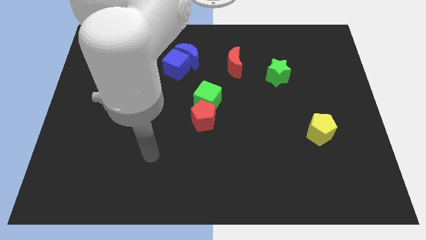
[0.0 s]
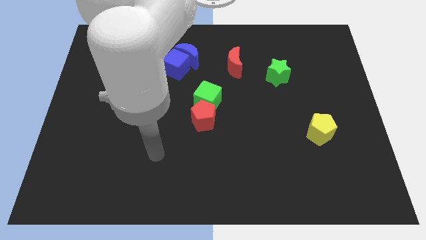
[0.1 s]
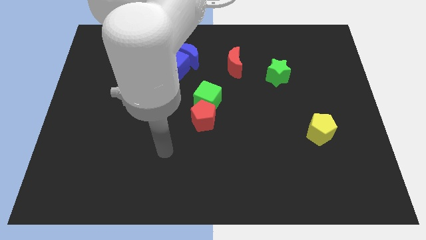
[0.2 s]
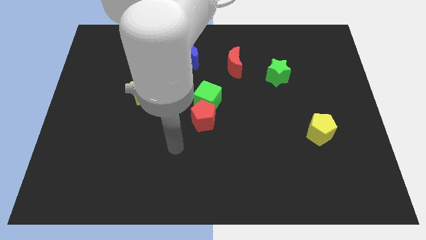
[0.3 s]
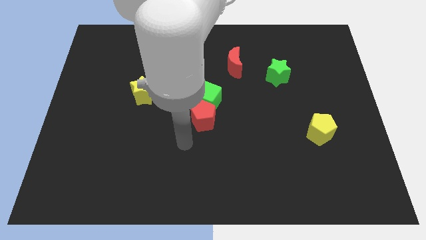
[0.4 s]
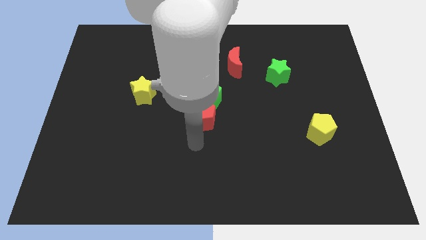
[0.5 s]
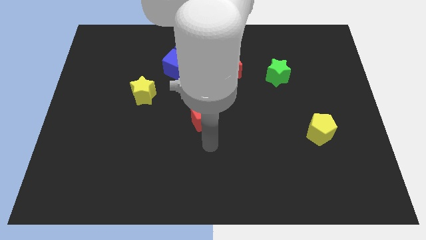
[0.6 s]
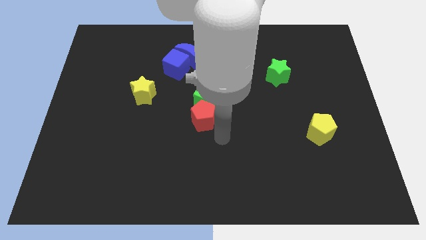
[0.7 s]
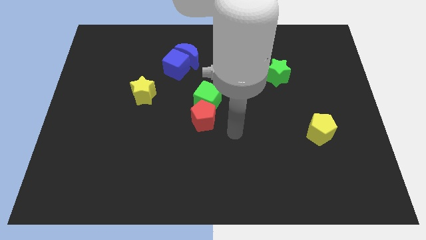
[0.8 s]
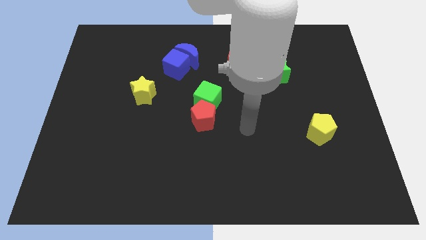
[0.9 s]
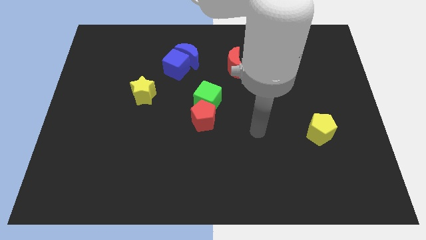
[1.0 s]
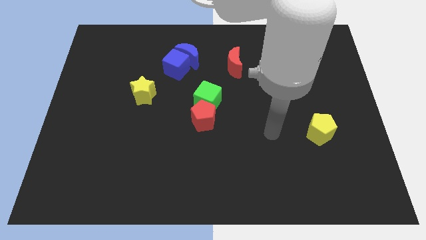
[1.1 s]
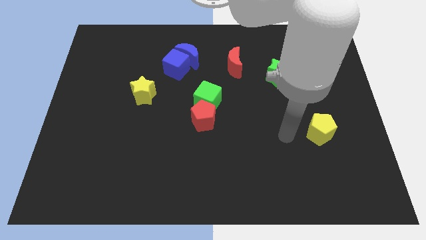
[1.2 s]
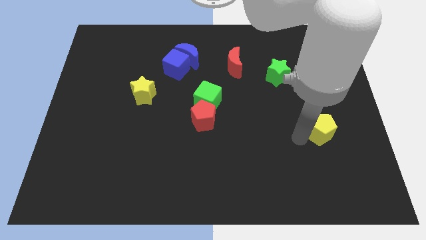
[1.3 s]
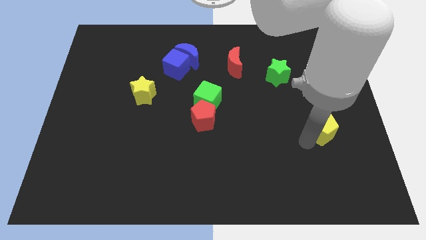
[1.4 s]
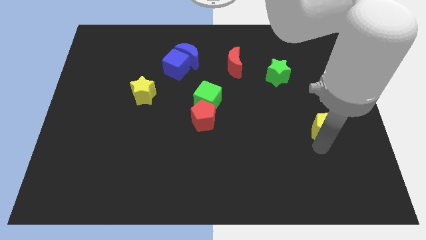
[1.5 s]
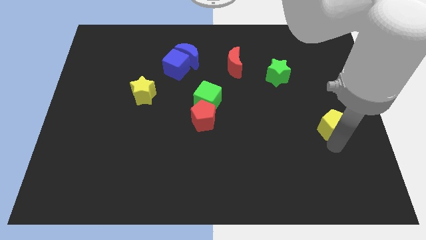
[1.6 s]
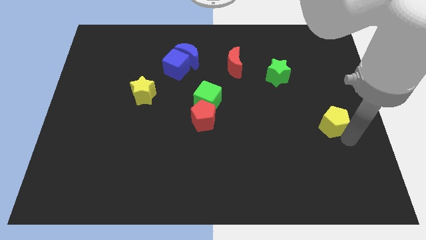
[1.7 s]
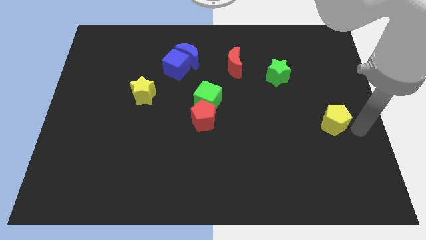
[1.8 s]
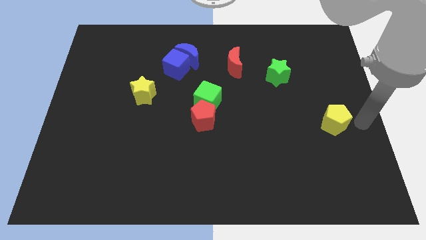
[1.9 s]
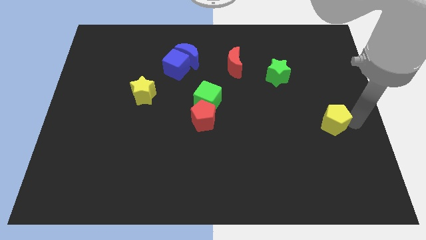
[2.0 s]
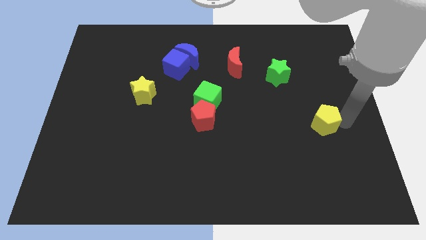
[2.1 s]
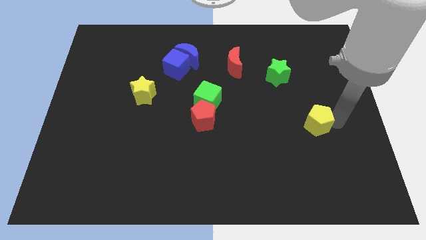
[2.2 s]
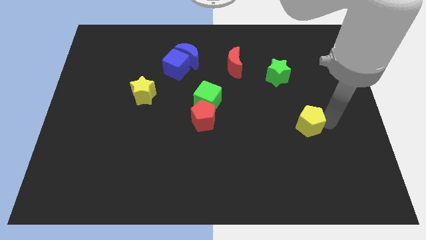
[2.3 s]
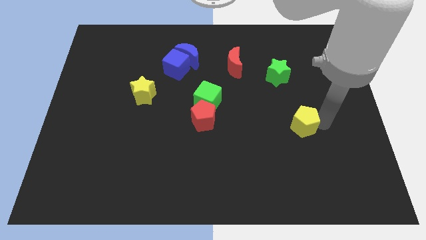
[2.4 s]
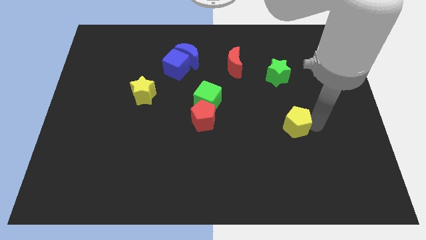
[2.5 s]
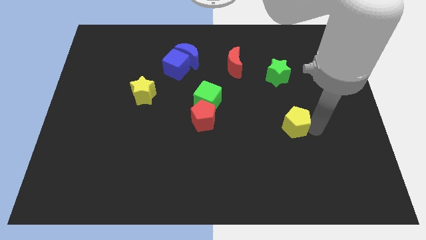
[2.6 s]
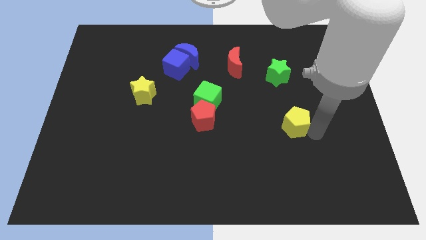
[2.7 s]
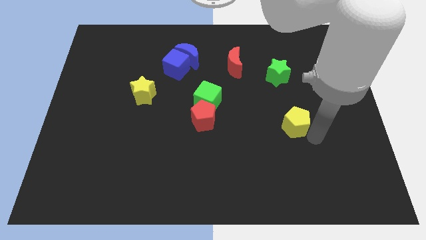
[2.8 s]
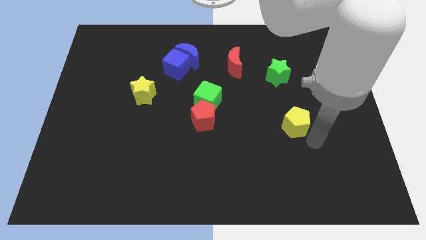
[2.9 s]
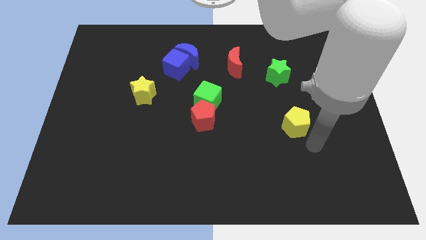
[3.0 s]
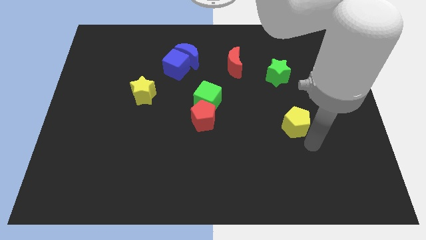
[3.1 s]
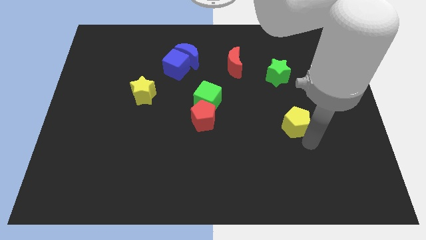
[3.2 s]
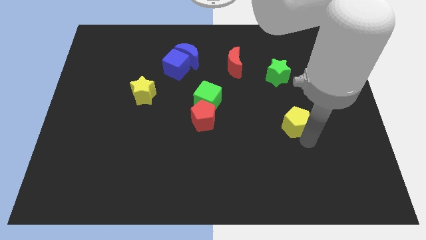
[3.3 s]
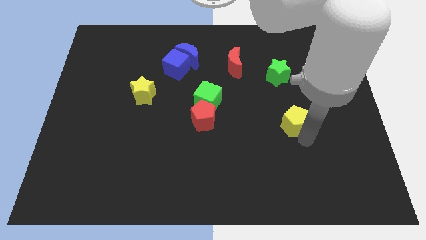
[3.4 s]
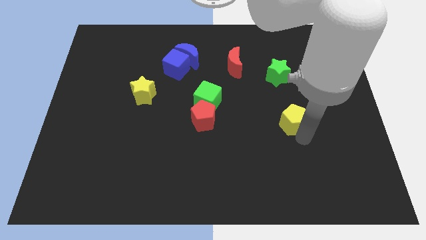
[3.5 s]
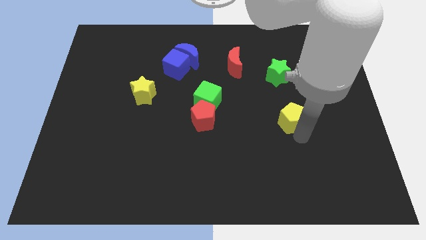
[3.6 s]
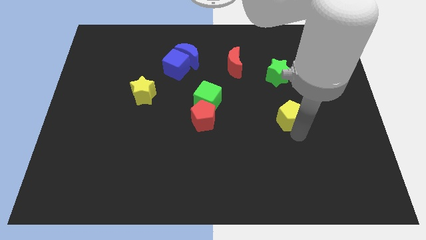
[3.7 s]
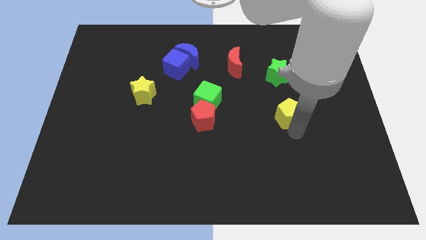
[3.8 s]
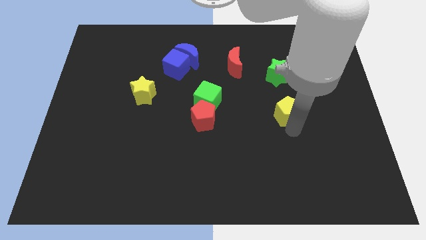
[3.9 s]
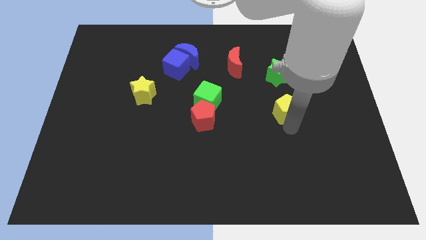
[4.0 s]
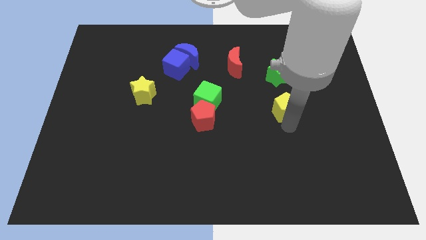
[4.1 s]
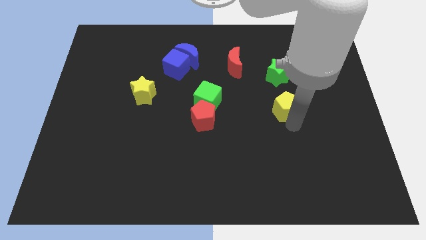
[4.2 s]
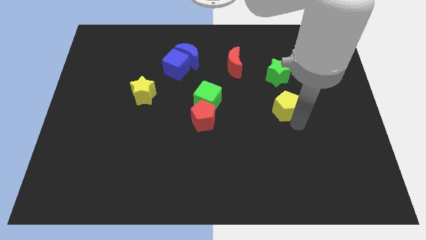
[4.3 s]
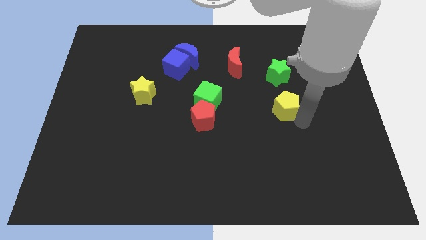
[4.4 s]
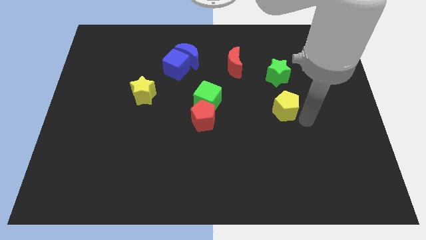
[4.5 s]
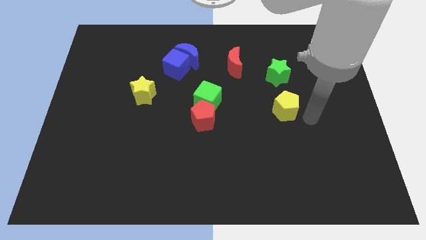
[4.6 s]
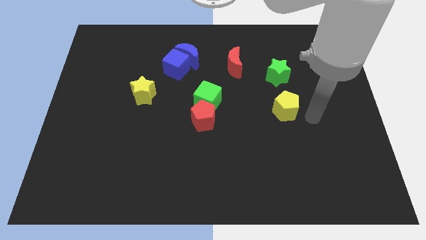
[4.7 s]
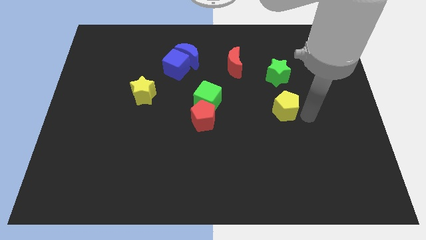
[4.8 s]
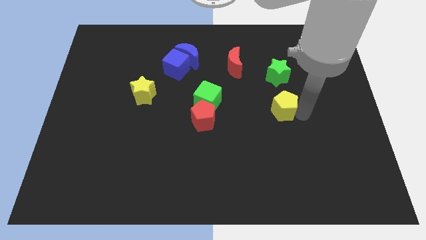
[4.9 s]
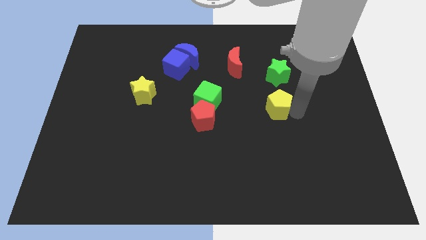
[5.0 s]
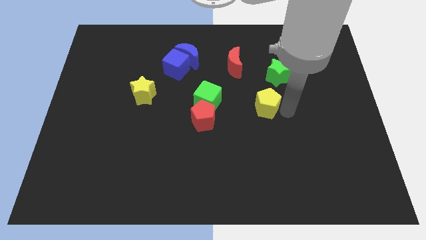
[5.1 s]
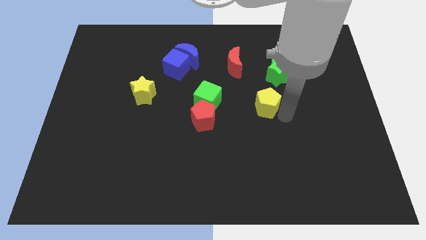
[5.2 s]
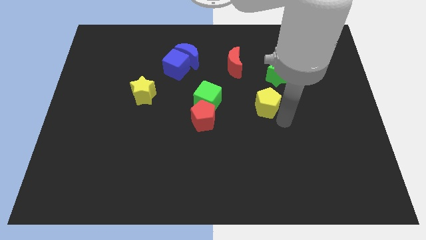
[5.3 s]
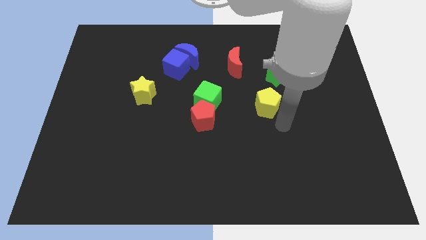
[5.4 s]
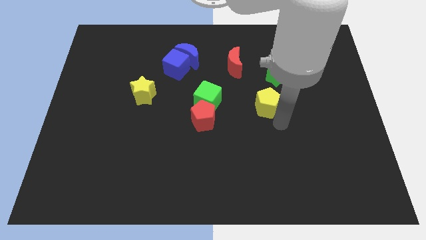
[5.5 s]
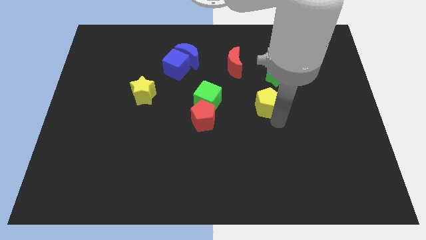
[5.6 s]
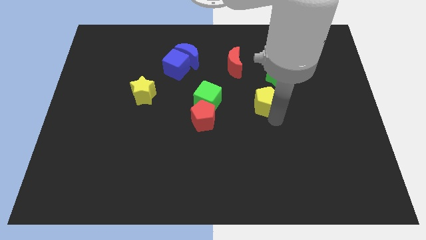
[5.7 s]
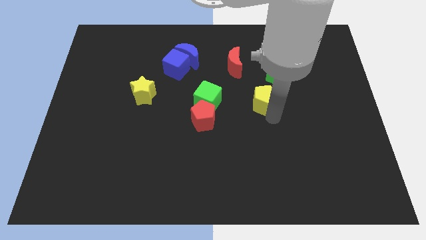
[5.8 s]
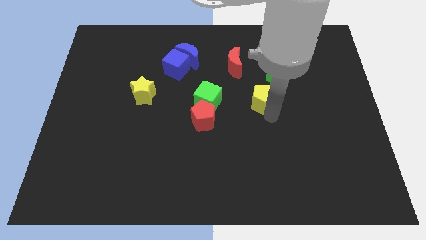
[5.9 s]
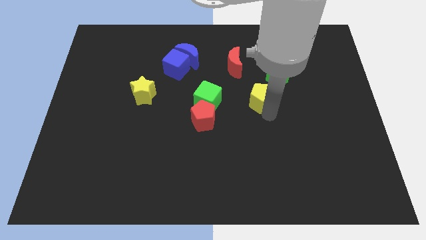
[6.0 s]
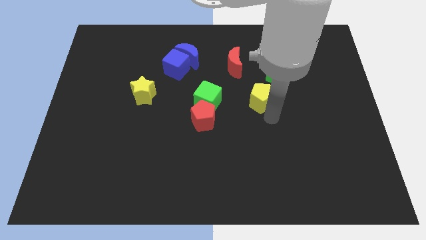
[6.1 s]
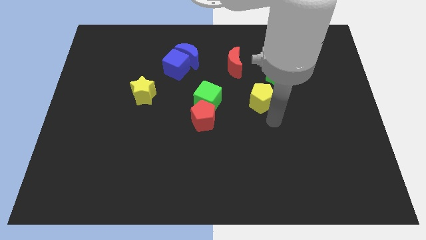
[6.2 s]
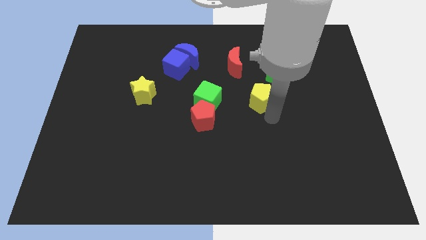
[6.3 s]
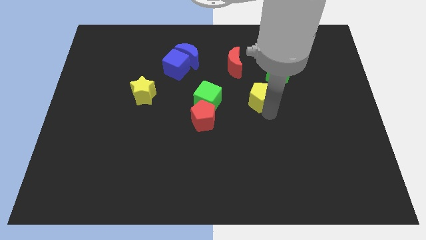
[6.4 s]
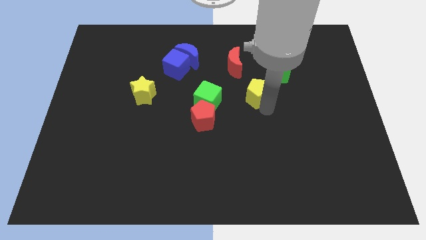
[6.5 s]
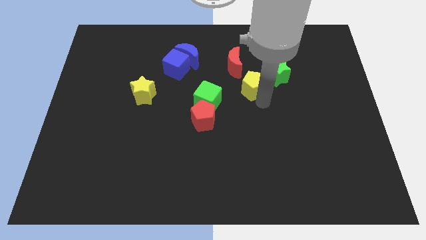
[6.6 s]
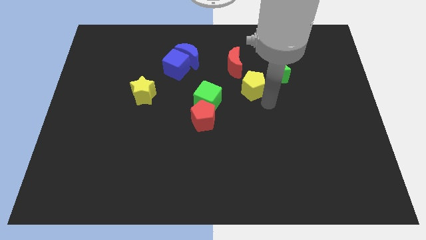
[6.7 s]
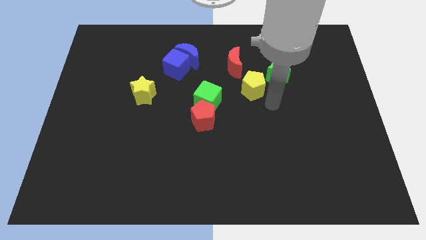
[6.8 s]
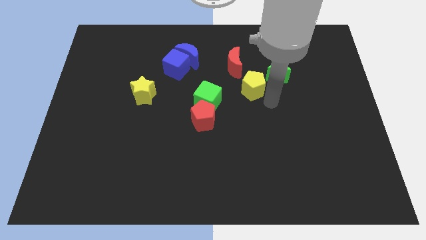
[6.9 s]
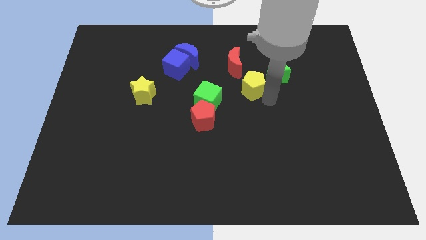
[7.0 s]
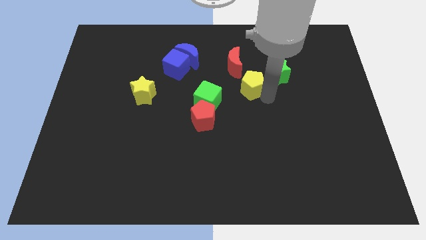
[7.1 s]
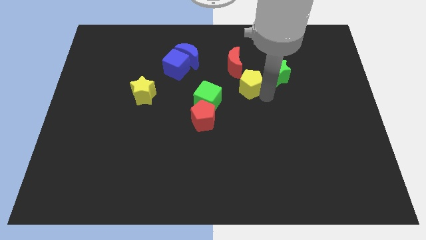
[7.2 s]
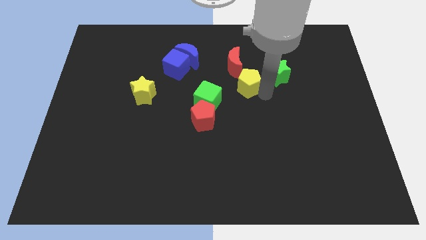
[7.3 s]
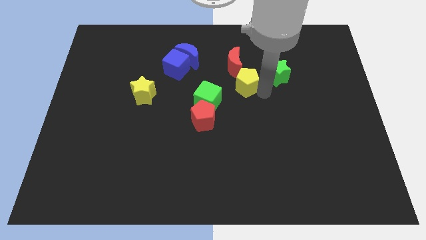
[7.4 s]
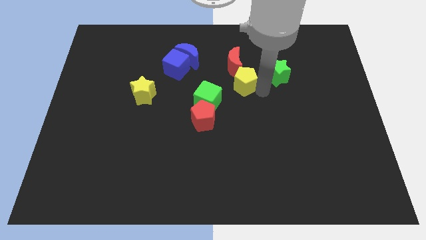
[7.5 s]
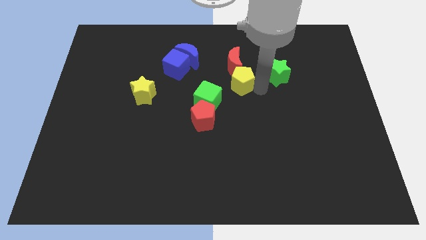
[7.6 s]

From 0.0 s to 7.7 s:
put the yellow pentagon next to the red moon
